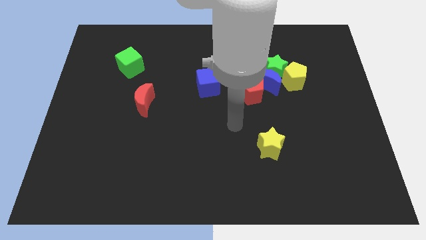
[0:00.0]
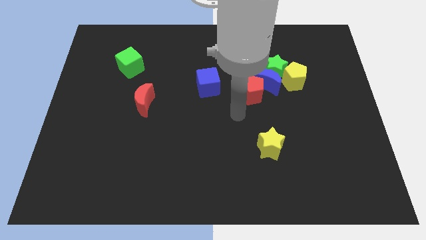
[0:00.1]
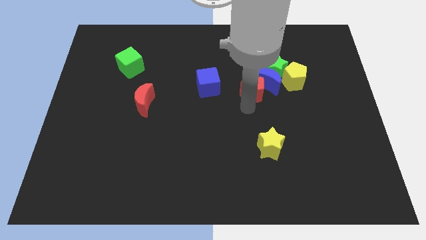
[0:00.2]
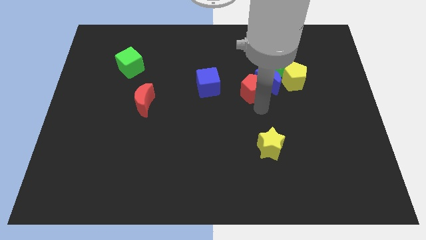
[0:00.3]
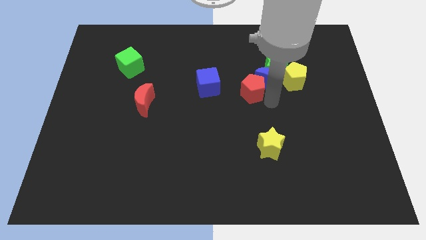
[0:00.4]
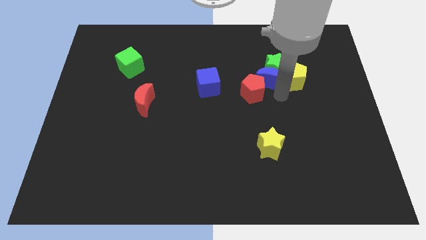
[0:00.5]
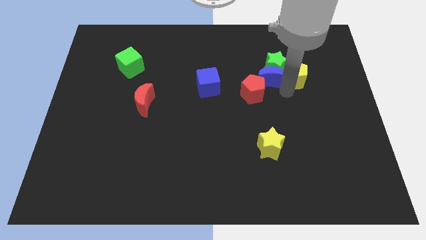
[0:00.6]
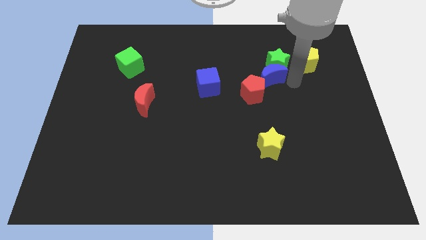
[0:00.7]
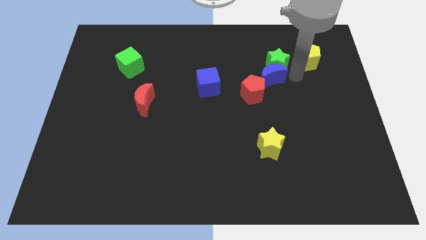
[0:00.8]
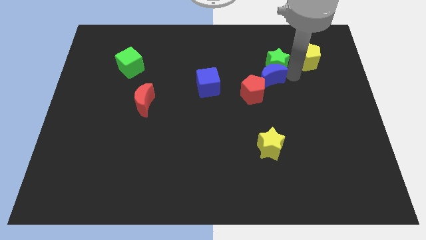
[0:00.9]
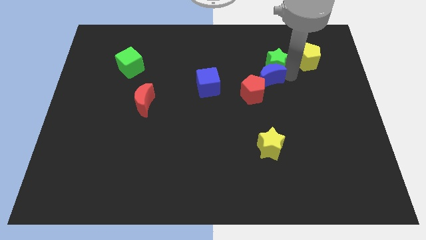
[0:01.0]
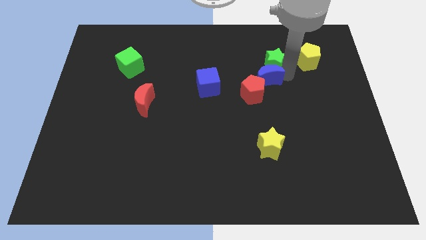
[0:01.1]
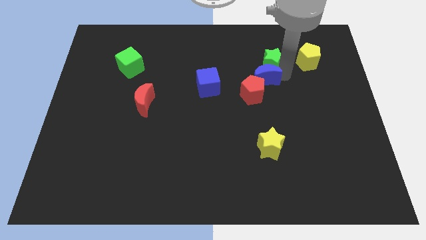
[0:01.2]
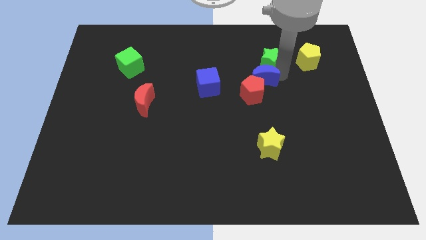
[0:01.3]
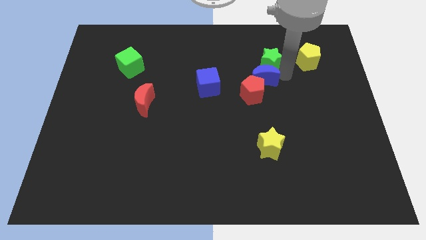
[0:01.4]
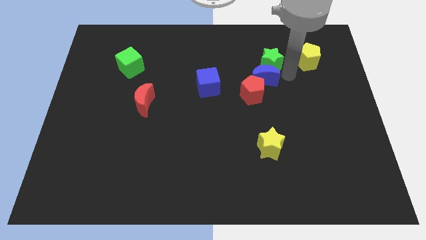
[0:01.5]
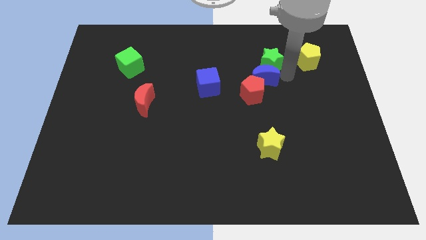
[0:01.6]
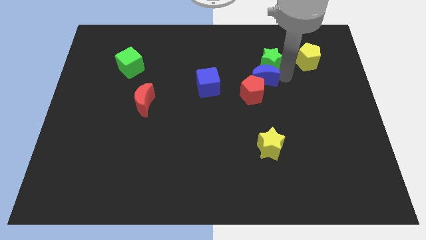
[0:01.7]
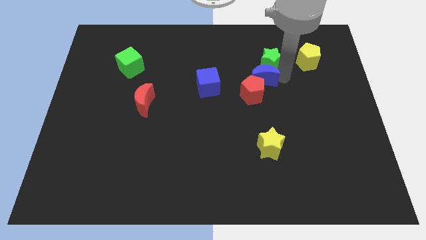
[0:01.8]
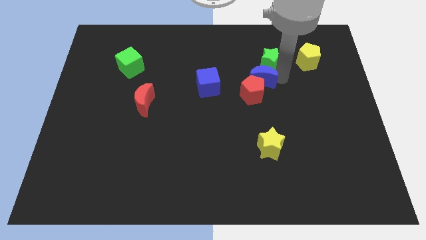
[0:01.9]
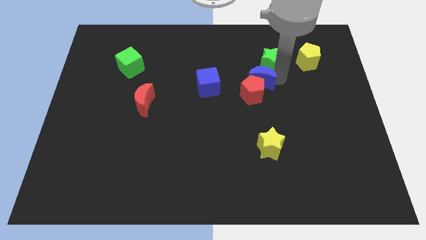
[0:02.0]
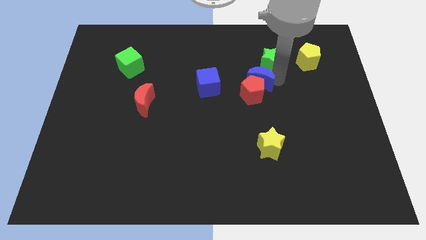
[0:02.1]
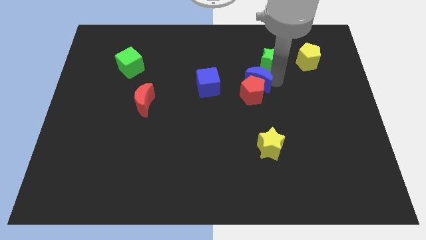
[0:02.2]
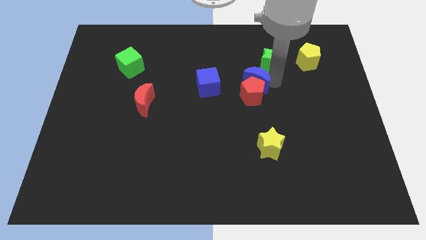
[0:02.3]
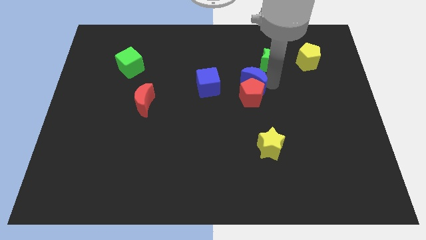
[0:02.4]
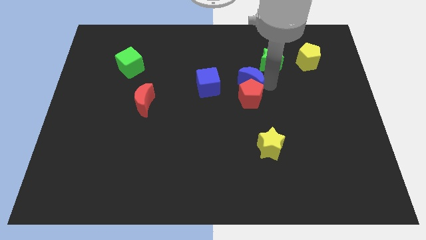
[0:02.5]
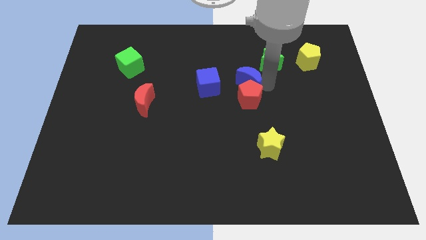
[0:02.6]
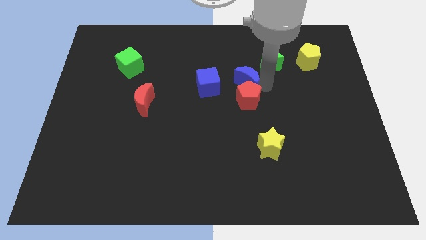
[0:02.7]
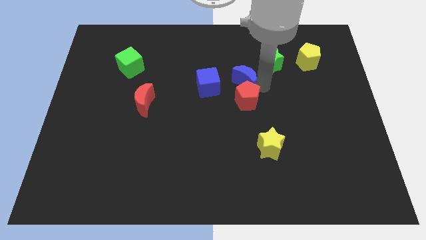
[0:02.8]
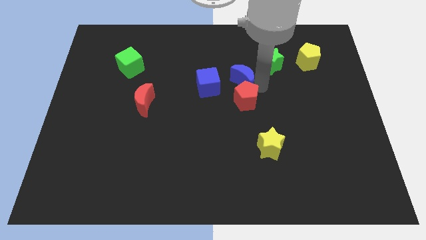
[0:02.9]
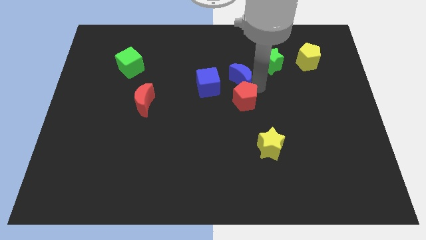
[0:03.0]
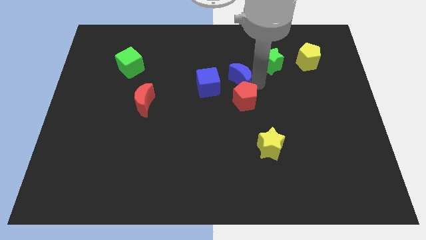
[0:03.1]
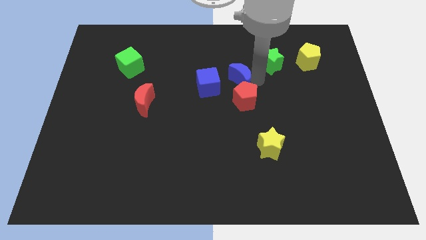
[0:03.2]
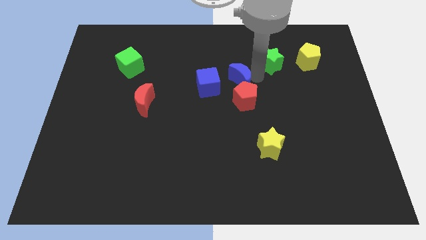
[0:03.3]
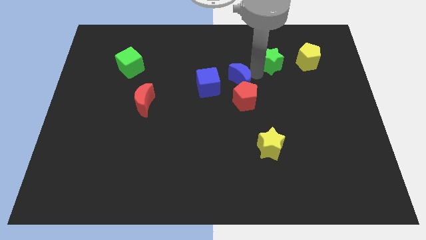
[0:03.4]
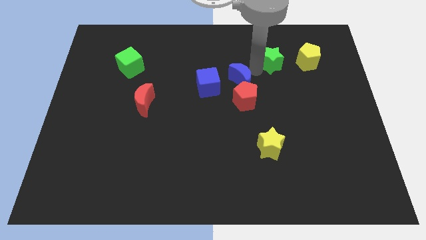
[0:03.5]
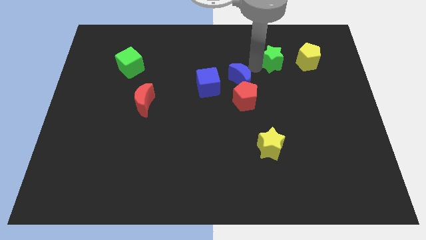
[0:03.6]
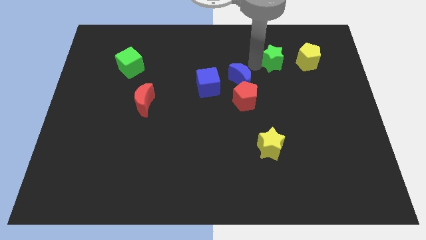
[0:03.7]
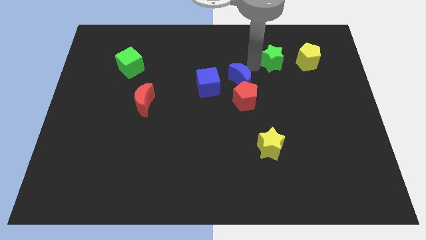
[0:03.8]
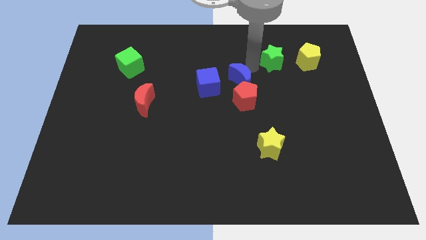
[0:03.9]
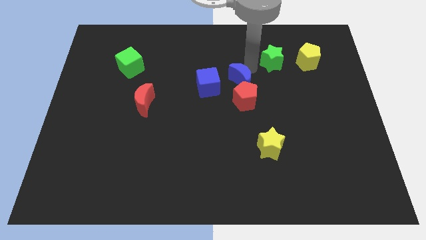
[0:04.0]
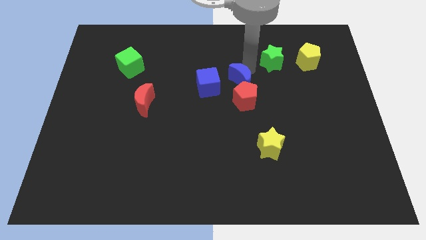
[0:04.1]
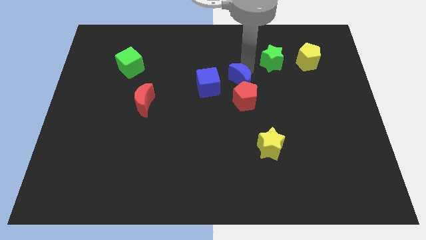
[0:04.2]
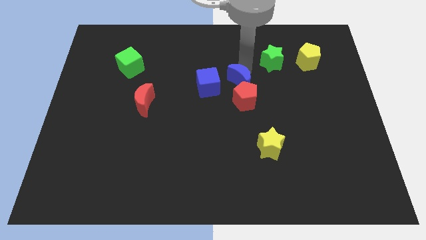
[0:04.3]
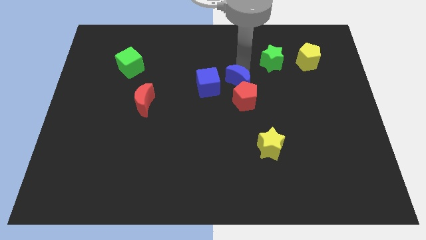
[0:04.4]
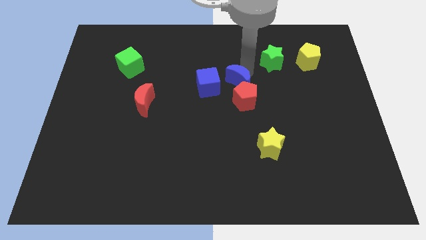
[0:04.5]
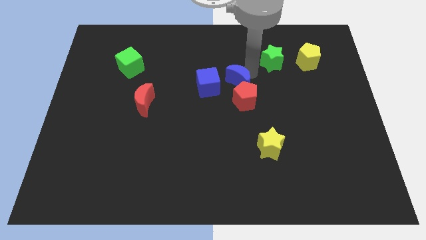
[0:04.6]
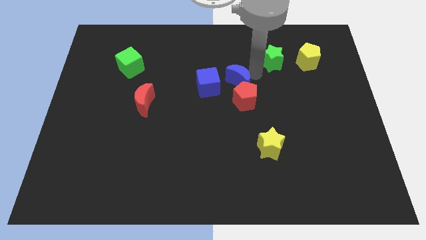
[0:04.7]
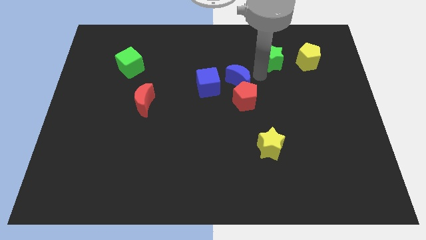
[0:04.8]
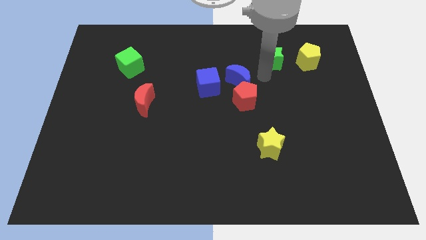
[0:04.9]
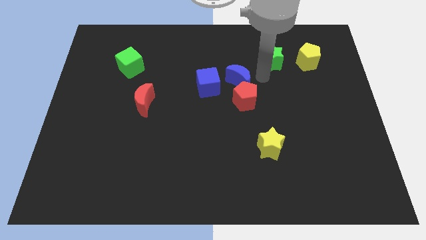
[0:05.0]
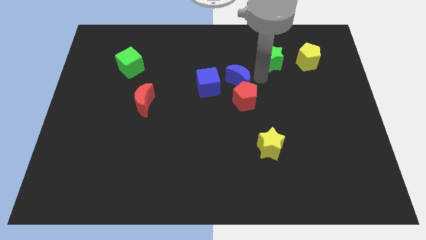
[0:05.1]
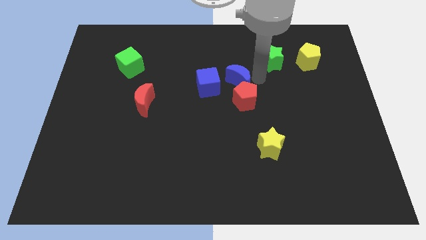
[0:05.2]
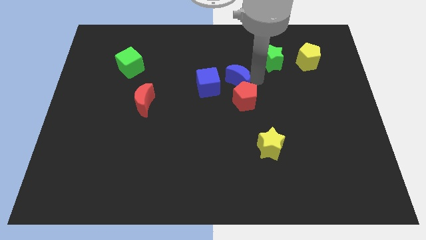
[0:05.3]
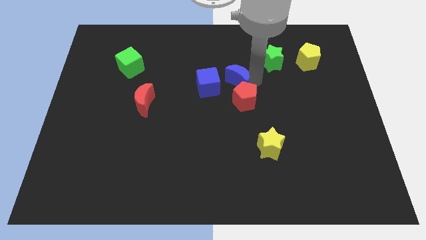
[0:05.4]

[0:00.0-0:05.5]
move the blue moon away from the green star, red pentagon, and yellow pentagon

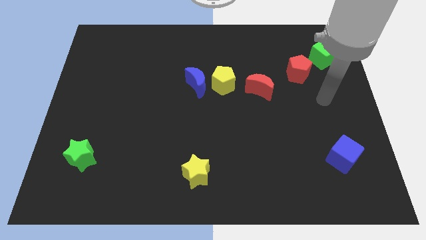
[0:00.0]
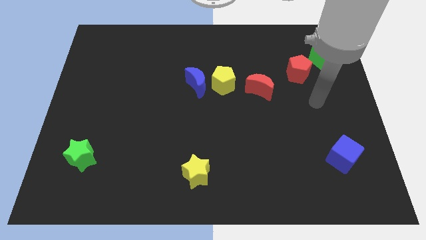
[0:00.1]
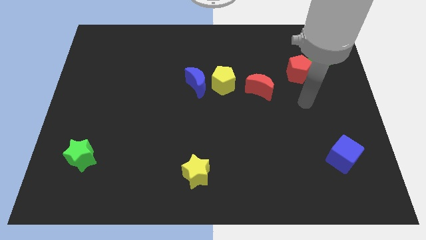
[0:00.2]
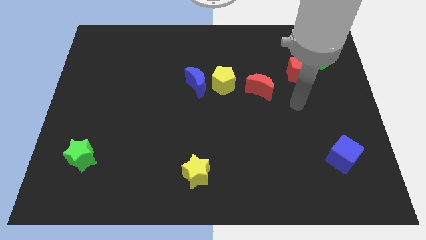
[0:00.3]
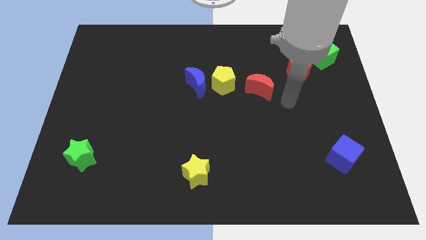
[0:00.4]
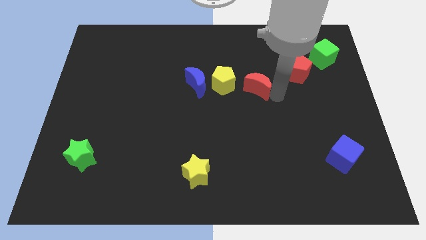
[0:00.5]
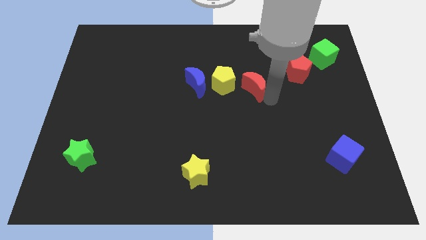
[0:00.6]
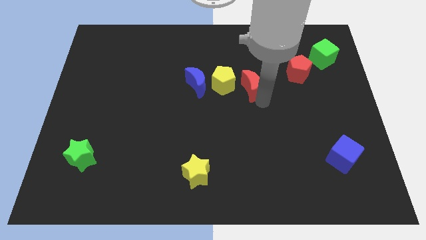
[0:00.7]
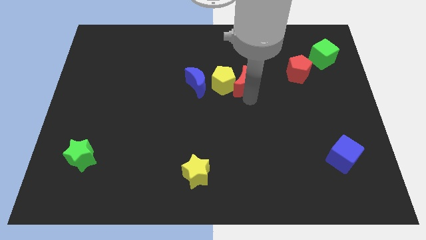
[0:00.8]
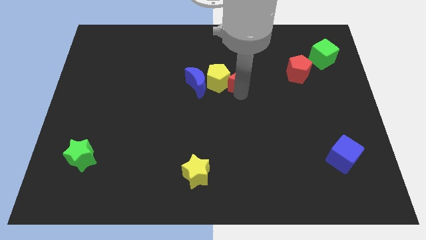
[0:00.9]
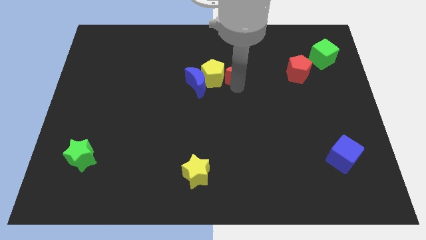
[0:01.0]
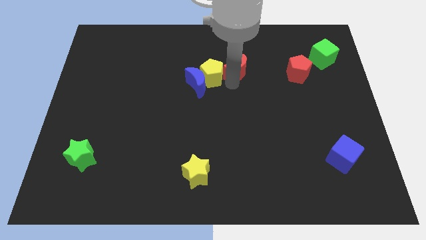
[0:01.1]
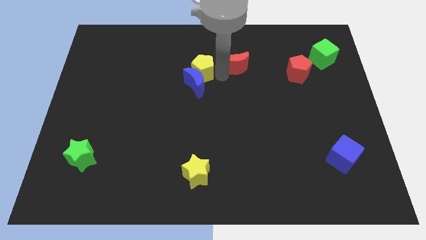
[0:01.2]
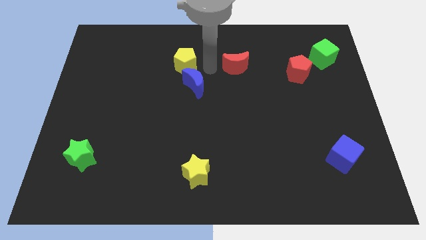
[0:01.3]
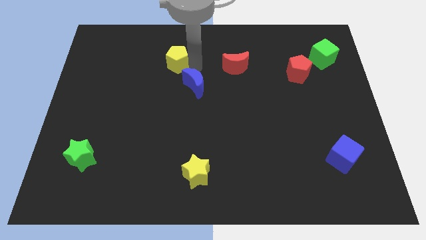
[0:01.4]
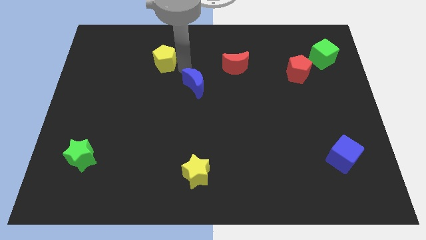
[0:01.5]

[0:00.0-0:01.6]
move the blue moon away from the yellow pentagon

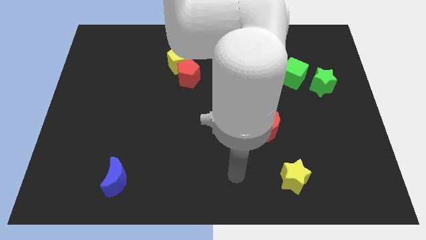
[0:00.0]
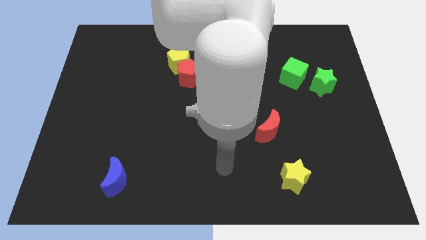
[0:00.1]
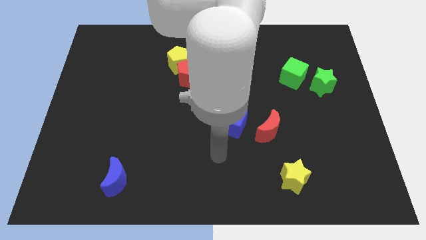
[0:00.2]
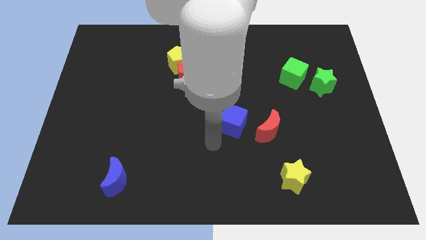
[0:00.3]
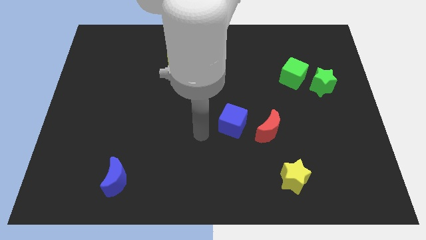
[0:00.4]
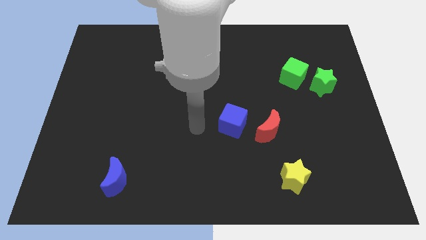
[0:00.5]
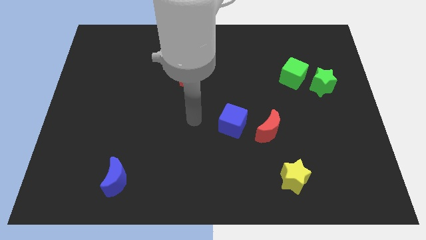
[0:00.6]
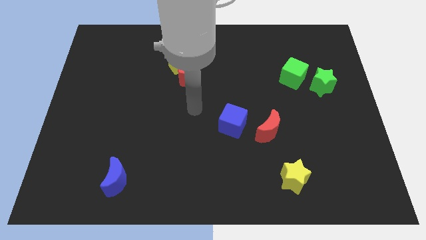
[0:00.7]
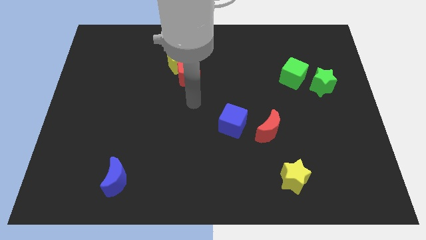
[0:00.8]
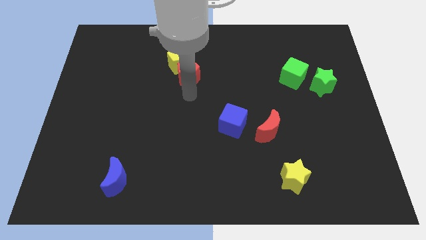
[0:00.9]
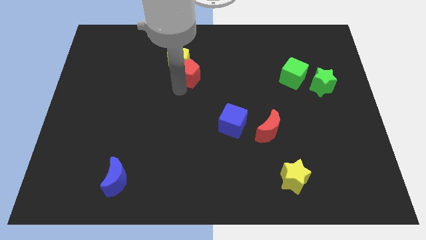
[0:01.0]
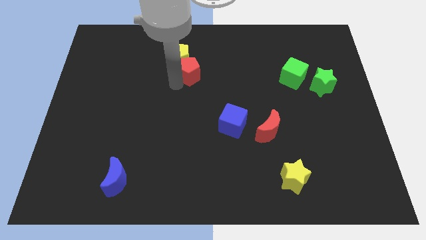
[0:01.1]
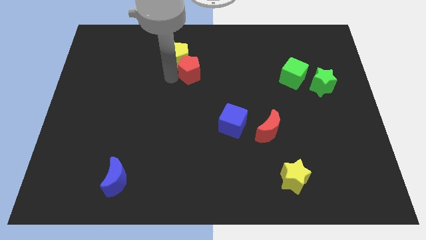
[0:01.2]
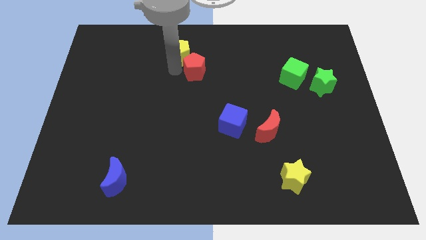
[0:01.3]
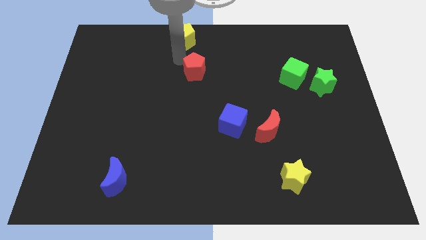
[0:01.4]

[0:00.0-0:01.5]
move the red pentagon away from the yellow pentagon

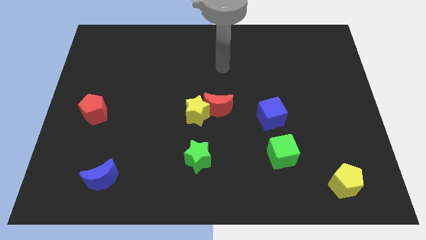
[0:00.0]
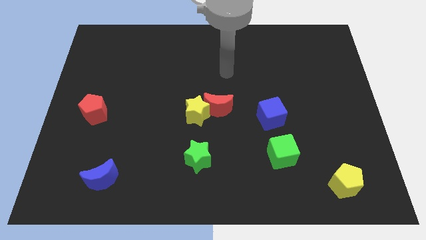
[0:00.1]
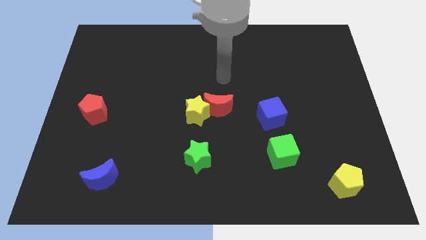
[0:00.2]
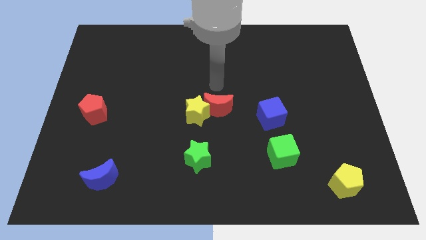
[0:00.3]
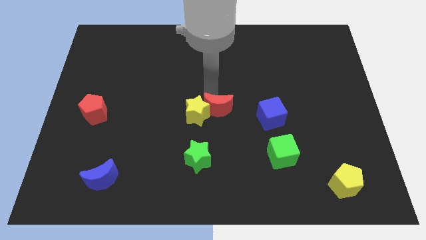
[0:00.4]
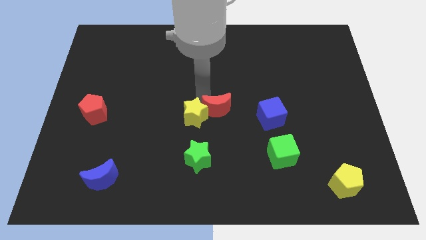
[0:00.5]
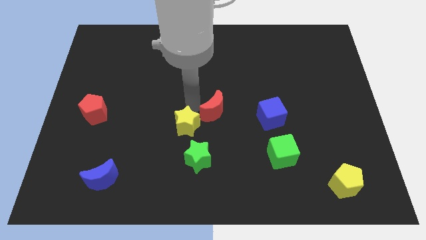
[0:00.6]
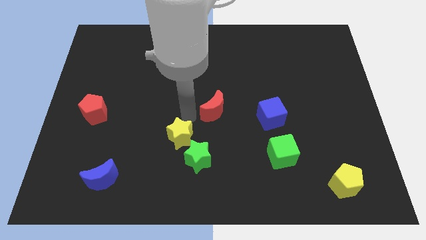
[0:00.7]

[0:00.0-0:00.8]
separate the red moon from the yellow star
